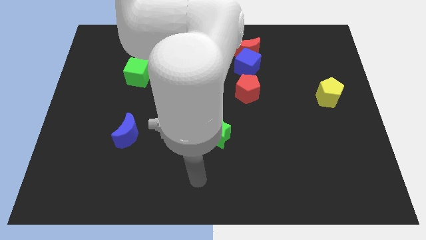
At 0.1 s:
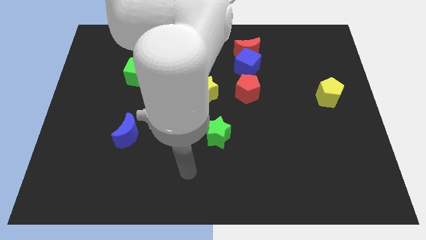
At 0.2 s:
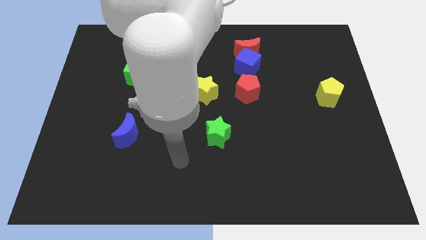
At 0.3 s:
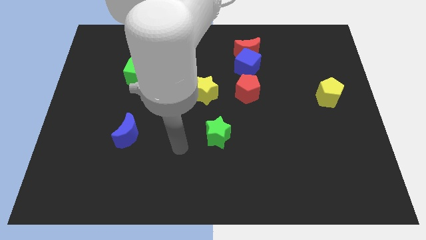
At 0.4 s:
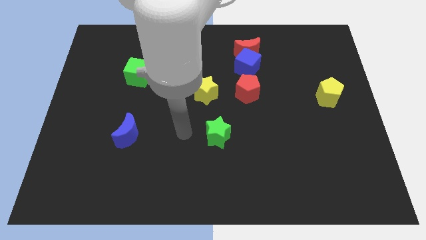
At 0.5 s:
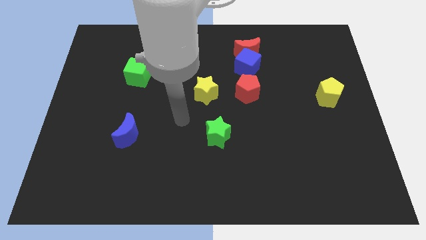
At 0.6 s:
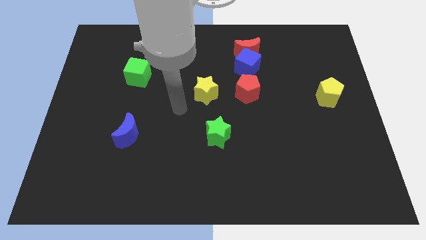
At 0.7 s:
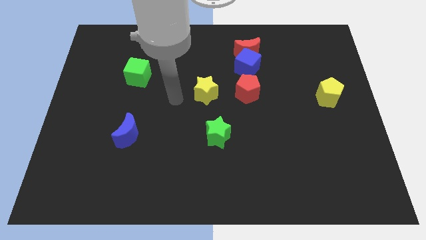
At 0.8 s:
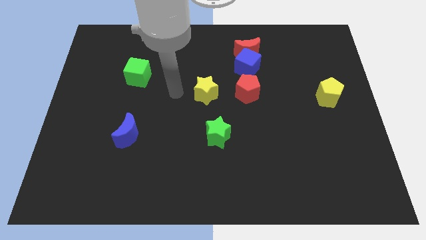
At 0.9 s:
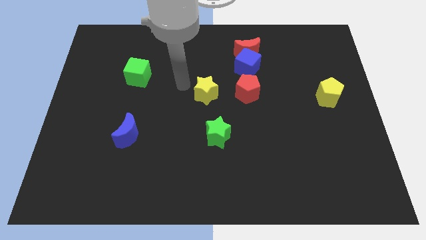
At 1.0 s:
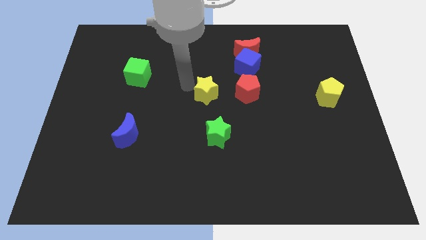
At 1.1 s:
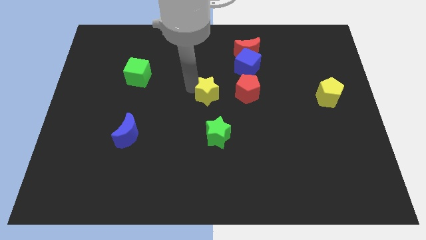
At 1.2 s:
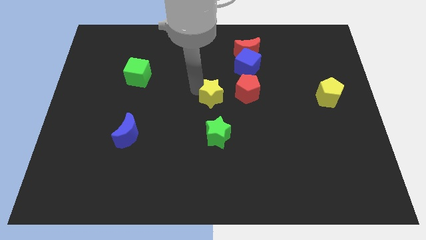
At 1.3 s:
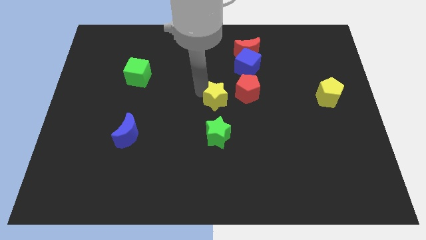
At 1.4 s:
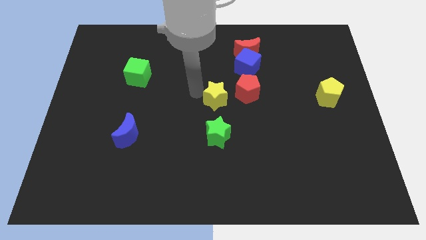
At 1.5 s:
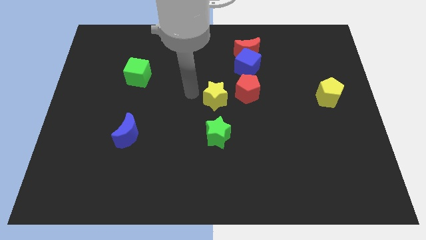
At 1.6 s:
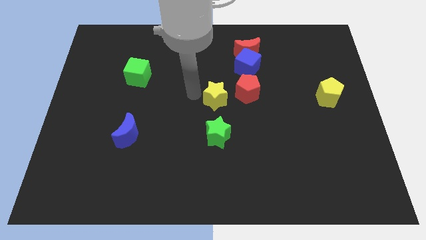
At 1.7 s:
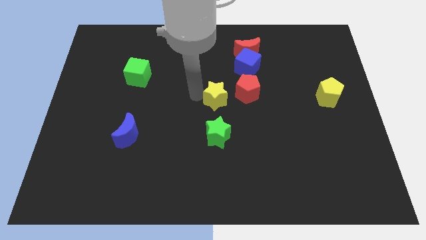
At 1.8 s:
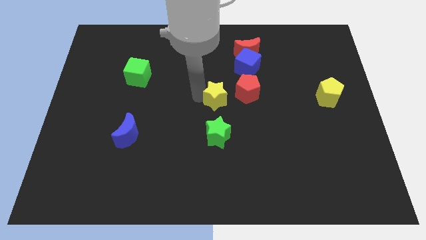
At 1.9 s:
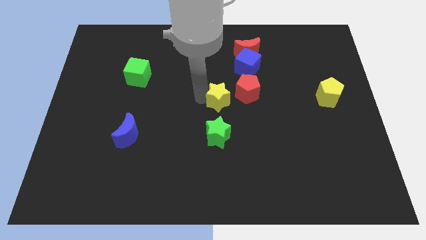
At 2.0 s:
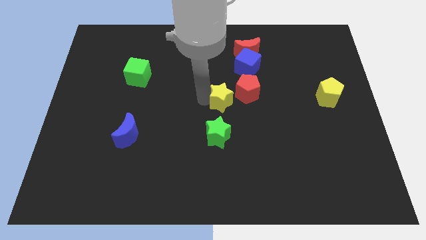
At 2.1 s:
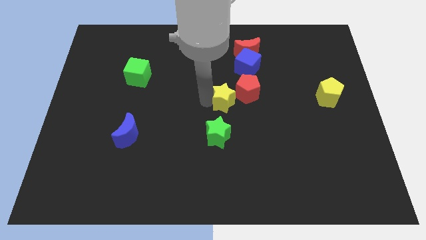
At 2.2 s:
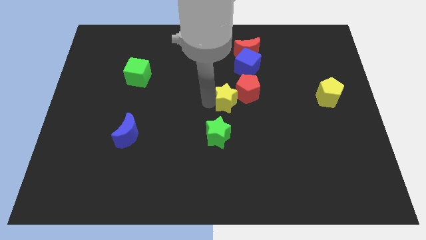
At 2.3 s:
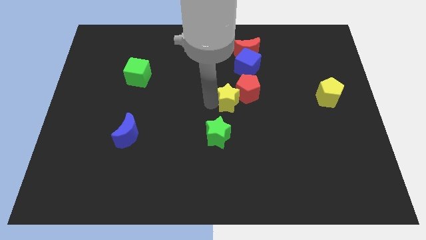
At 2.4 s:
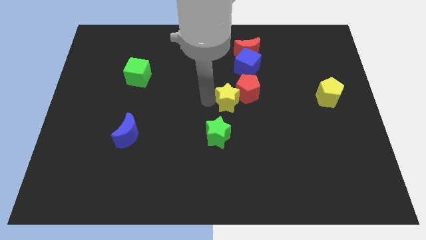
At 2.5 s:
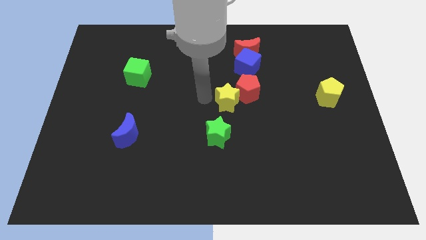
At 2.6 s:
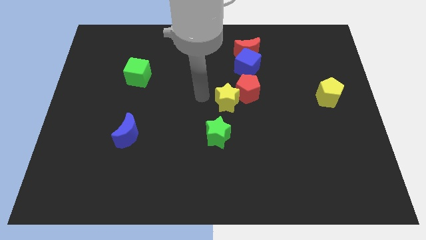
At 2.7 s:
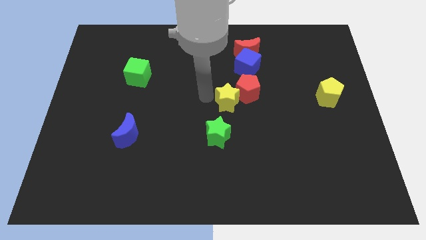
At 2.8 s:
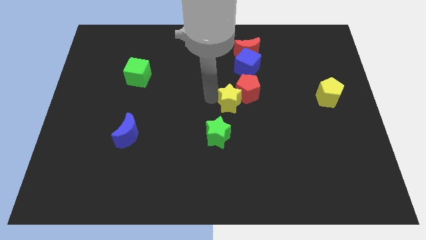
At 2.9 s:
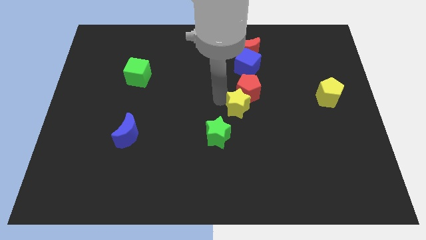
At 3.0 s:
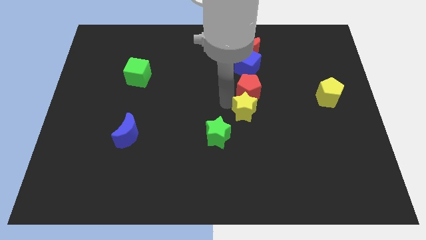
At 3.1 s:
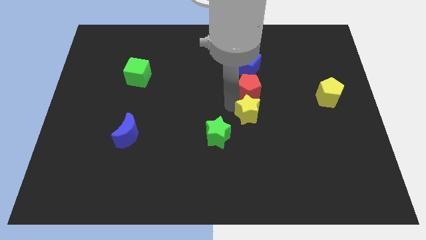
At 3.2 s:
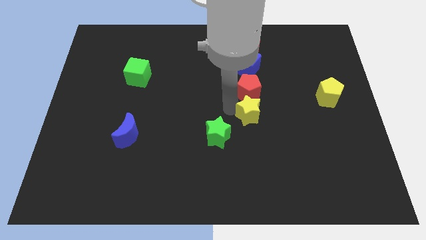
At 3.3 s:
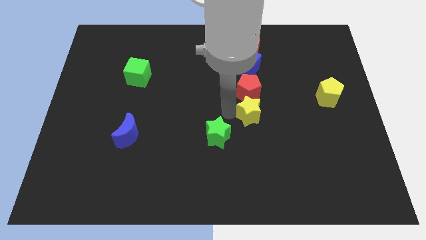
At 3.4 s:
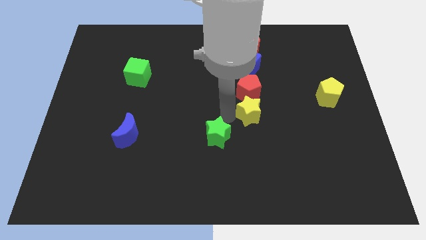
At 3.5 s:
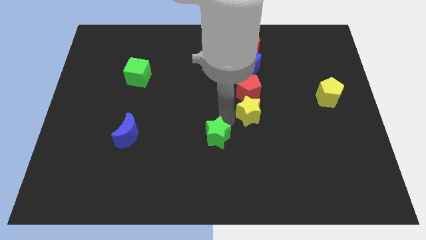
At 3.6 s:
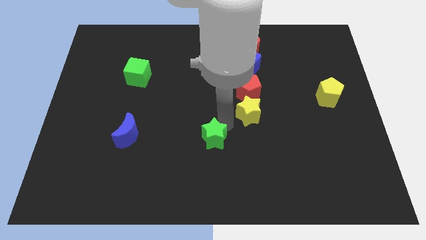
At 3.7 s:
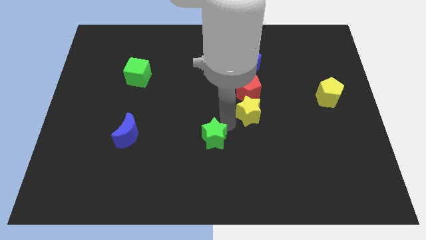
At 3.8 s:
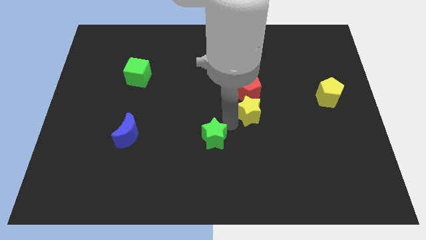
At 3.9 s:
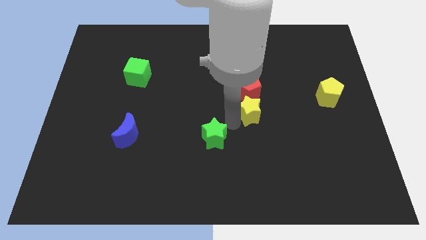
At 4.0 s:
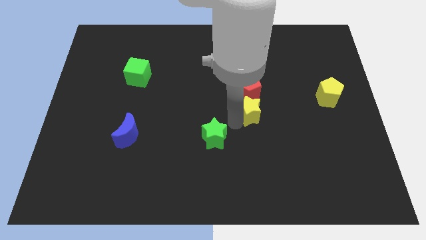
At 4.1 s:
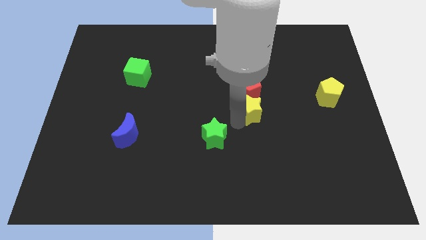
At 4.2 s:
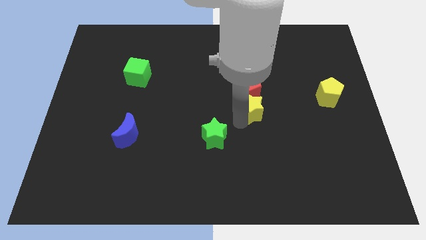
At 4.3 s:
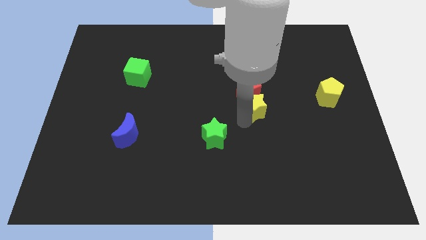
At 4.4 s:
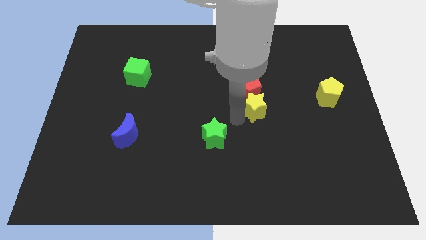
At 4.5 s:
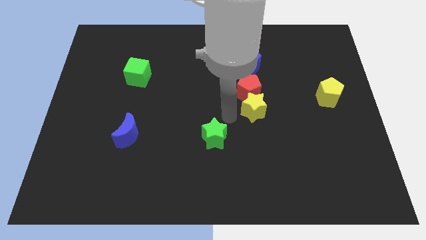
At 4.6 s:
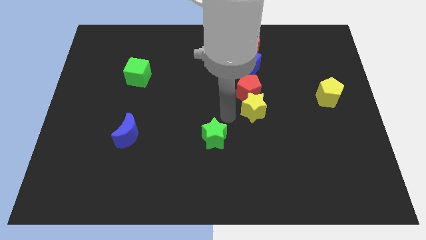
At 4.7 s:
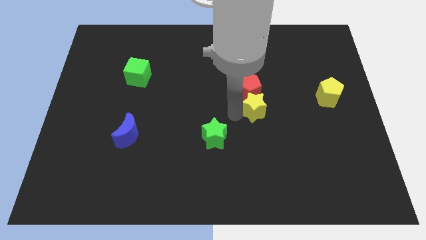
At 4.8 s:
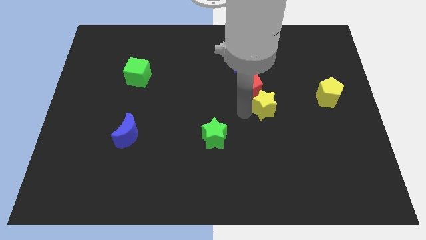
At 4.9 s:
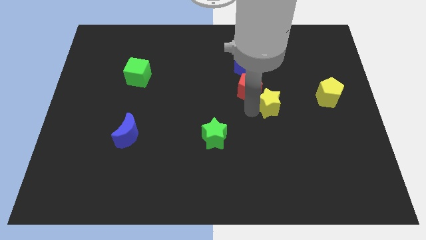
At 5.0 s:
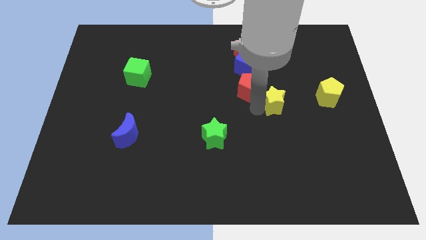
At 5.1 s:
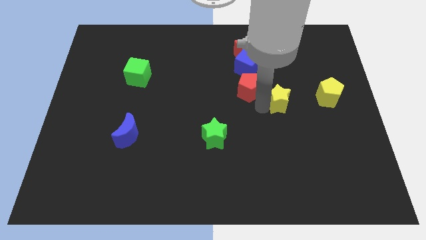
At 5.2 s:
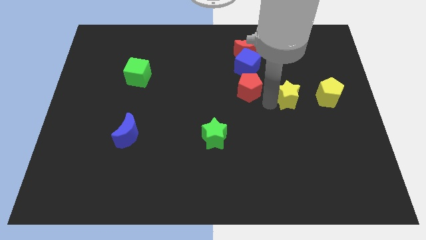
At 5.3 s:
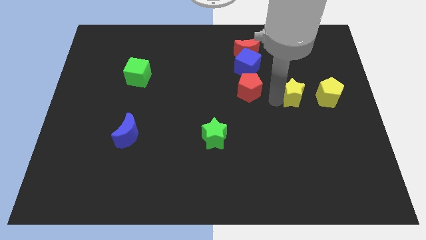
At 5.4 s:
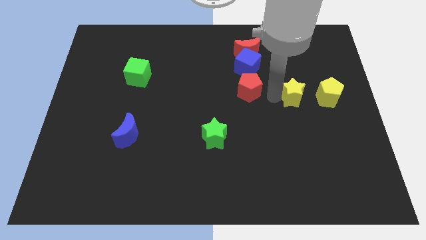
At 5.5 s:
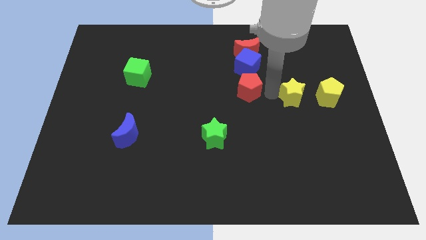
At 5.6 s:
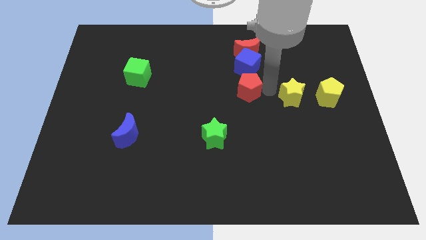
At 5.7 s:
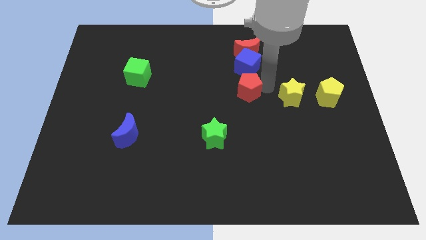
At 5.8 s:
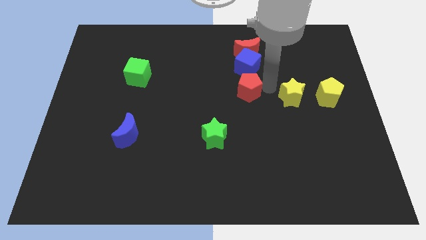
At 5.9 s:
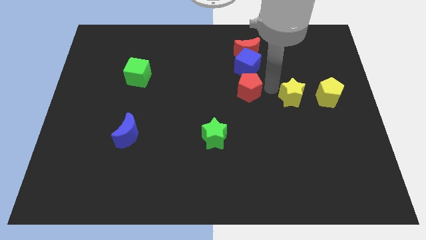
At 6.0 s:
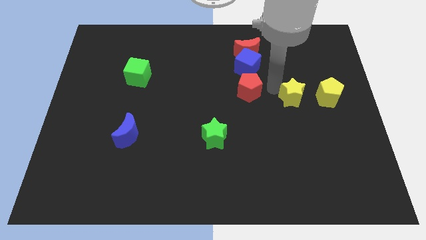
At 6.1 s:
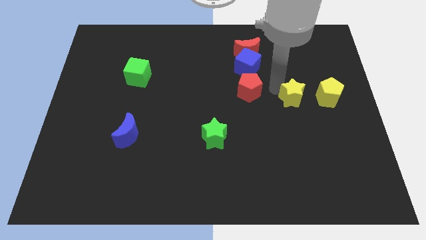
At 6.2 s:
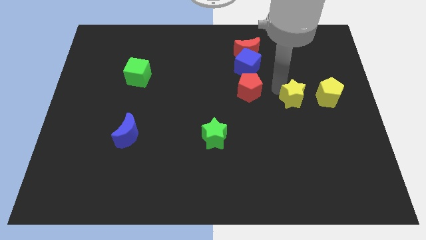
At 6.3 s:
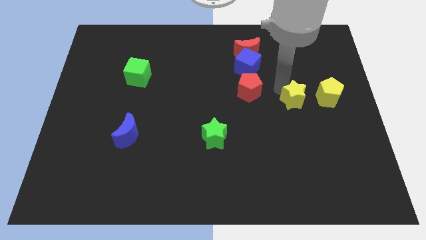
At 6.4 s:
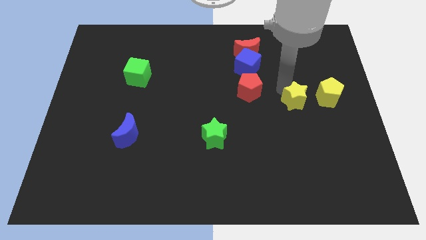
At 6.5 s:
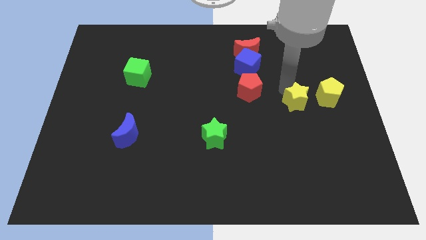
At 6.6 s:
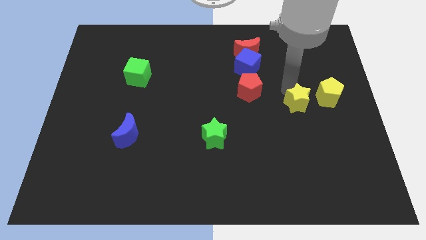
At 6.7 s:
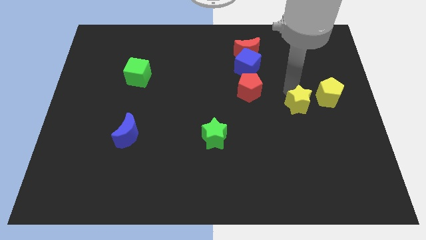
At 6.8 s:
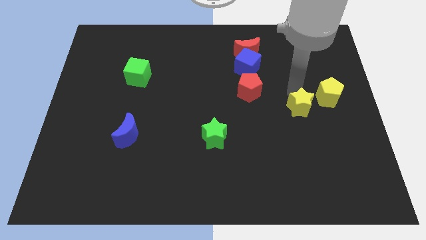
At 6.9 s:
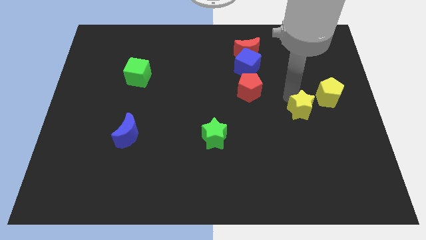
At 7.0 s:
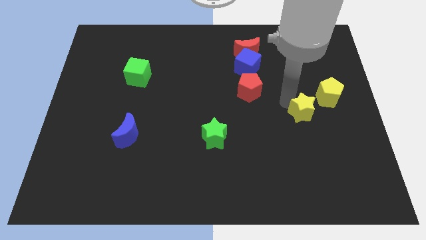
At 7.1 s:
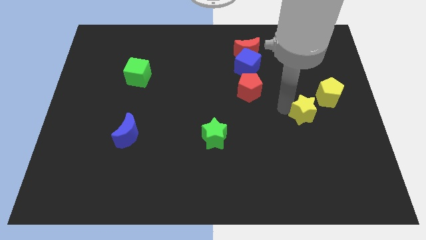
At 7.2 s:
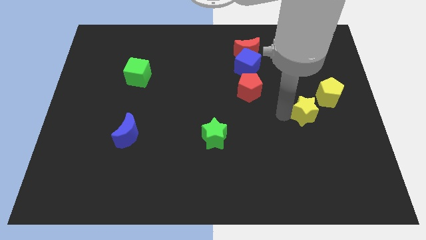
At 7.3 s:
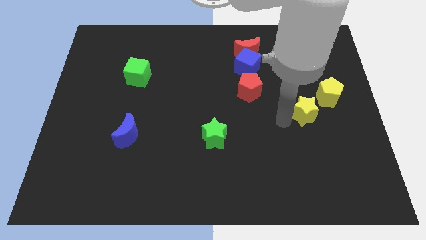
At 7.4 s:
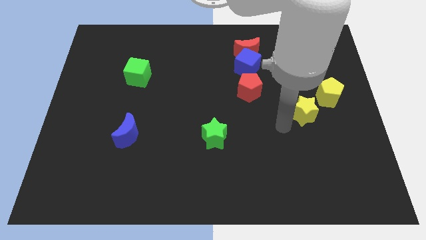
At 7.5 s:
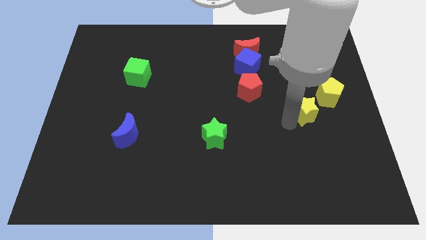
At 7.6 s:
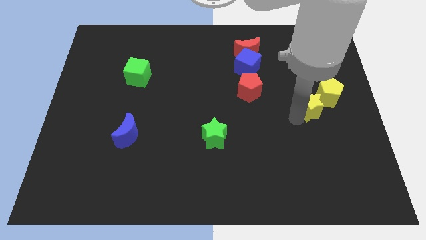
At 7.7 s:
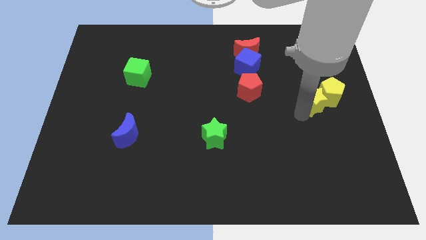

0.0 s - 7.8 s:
put the yellow star towards the yellow pentagon
